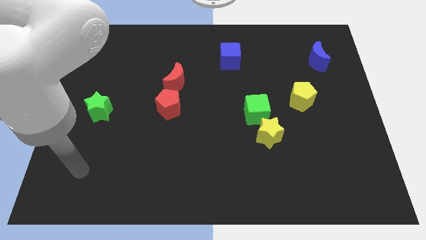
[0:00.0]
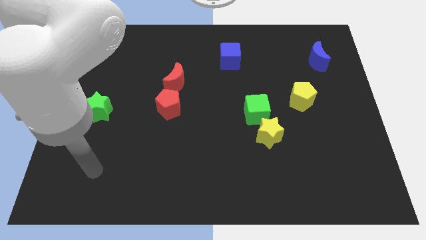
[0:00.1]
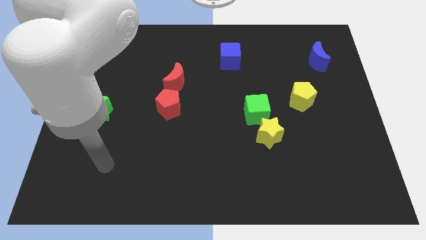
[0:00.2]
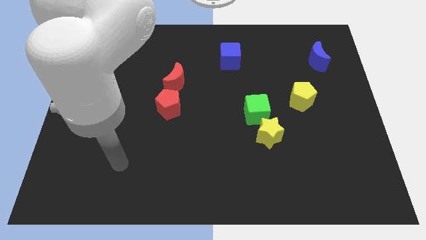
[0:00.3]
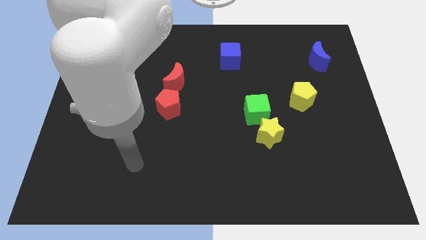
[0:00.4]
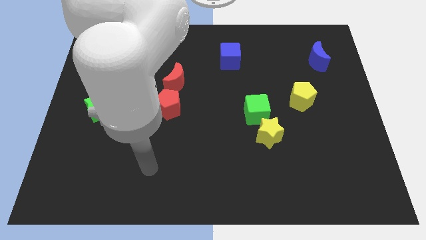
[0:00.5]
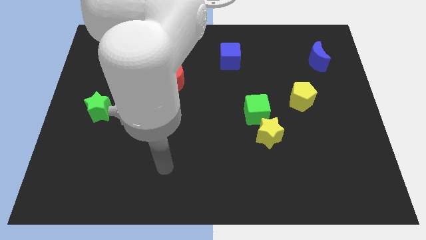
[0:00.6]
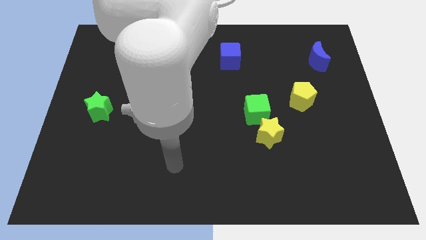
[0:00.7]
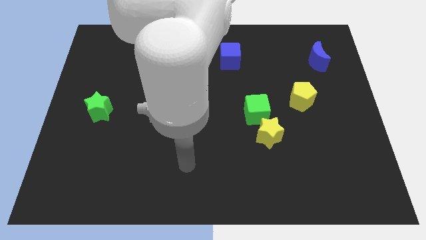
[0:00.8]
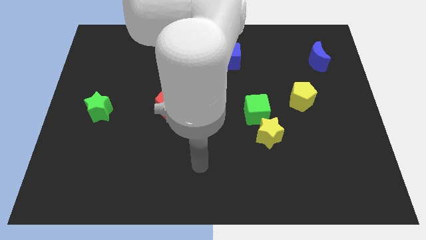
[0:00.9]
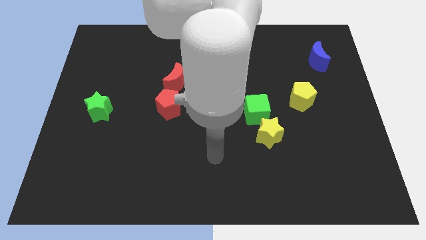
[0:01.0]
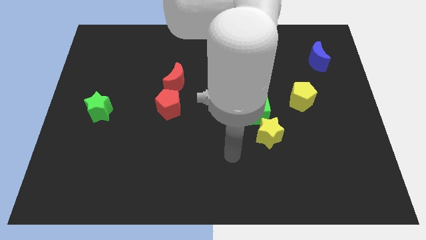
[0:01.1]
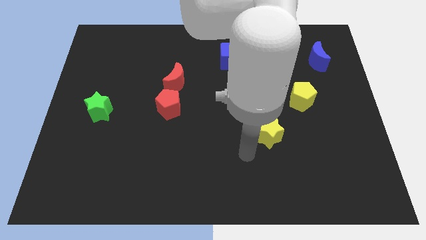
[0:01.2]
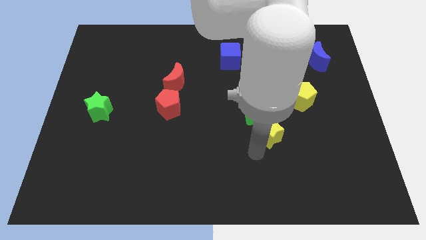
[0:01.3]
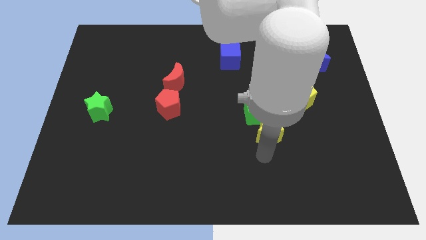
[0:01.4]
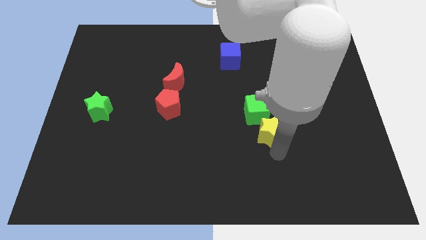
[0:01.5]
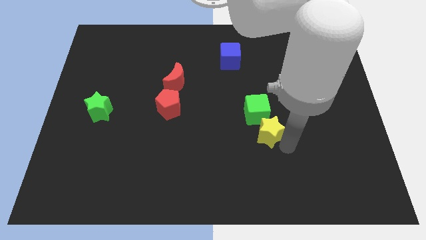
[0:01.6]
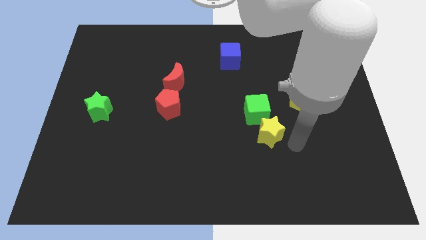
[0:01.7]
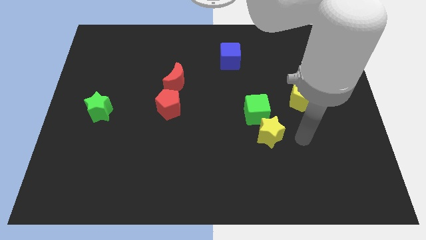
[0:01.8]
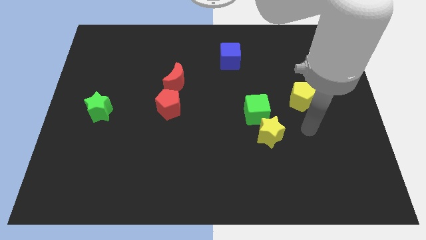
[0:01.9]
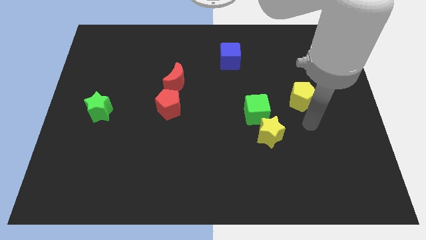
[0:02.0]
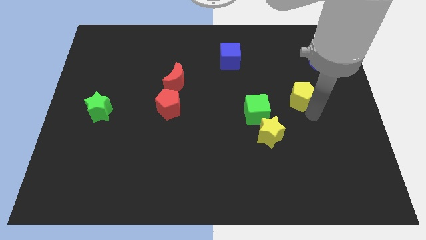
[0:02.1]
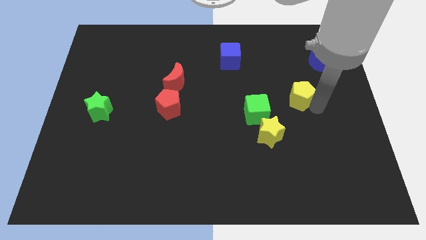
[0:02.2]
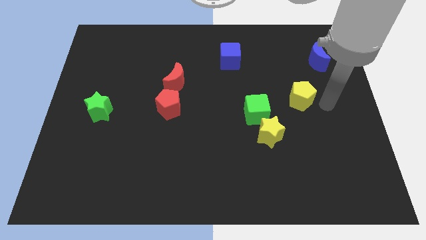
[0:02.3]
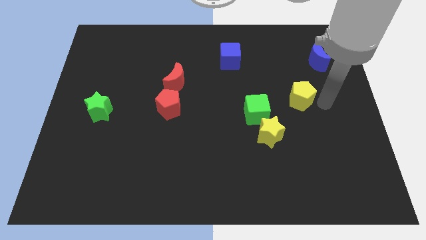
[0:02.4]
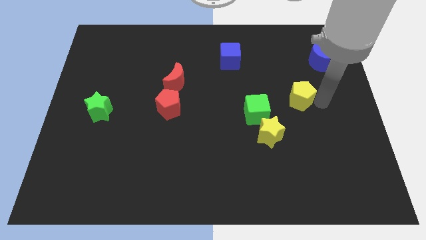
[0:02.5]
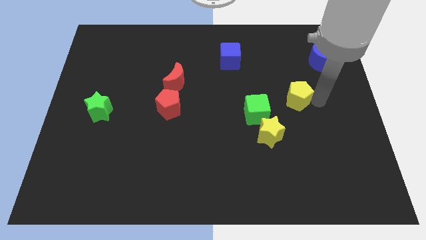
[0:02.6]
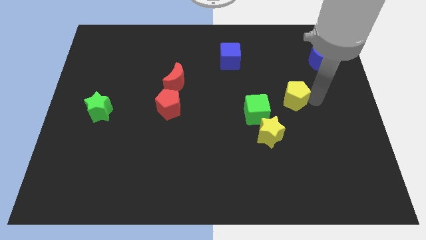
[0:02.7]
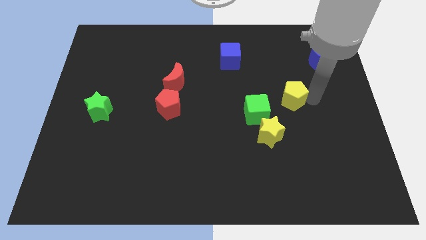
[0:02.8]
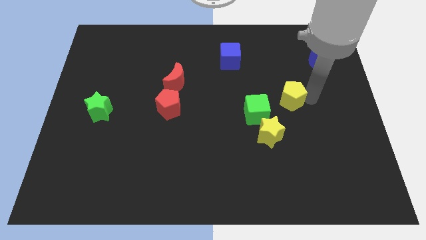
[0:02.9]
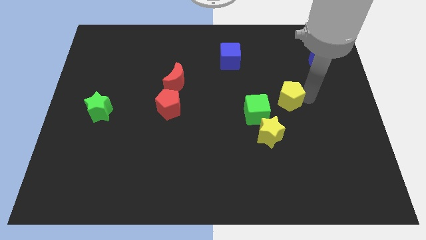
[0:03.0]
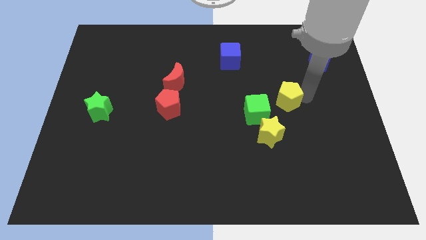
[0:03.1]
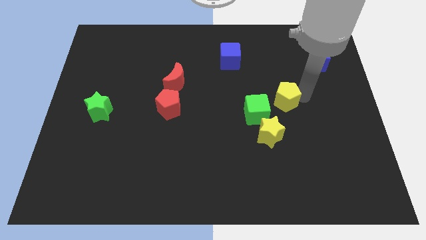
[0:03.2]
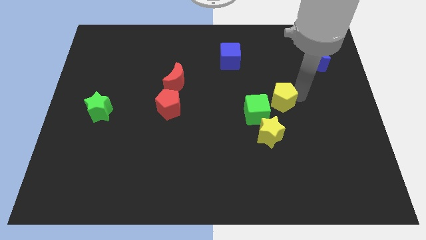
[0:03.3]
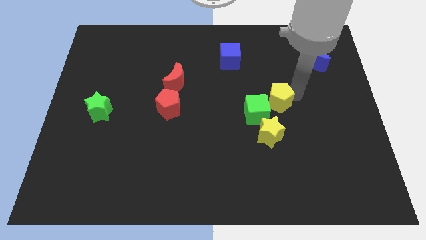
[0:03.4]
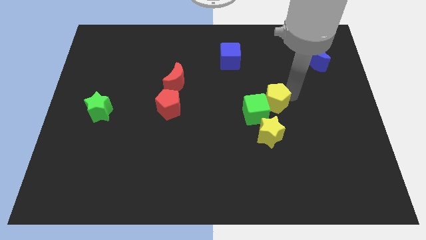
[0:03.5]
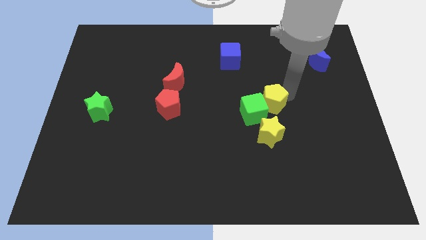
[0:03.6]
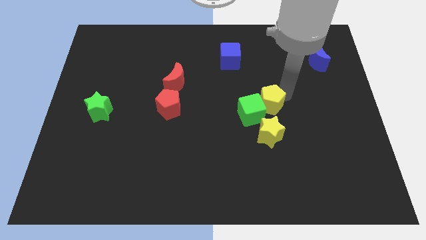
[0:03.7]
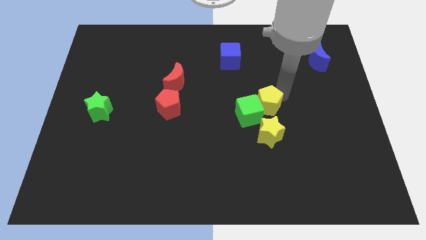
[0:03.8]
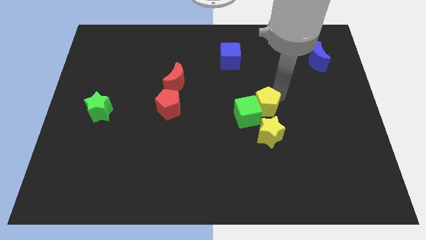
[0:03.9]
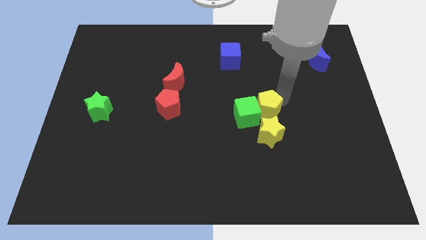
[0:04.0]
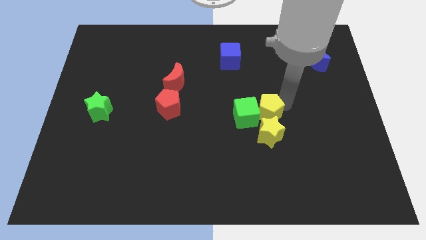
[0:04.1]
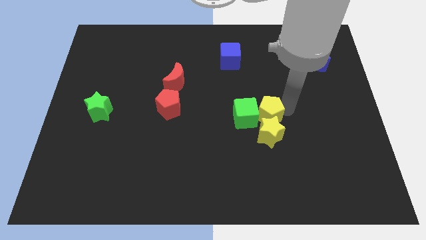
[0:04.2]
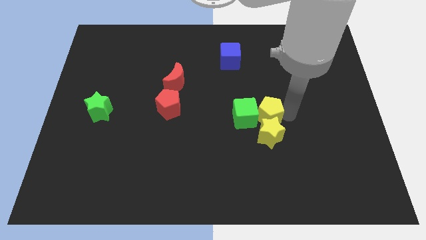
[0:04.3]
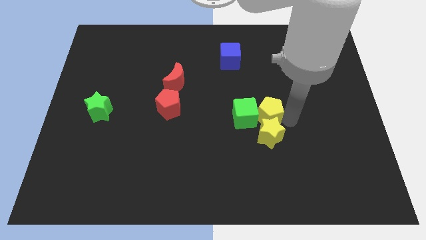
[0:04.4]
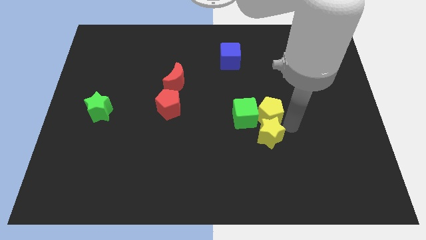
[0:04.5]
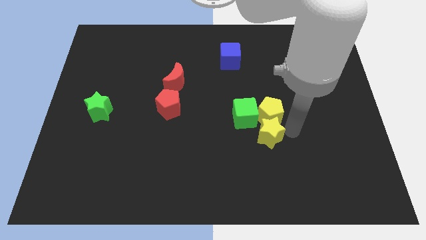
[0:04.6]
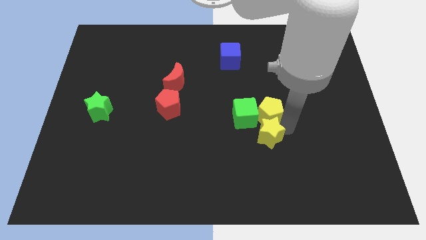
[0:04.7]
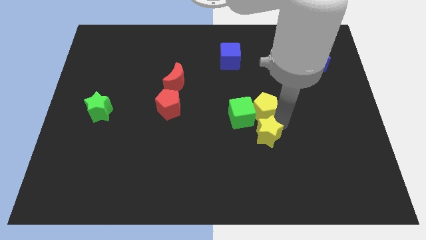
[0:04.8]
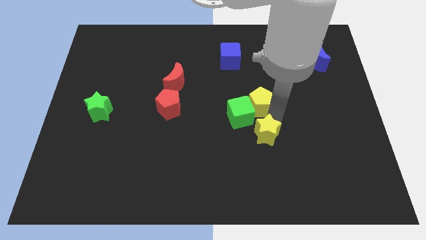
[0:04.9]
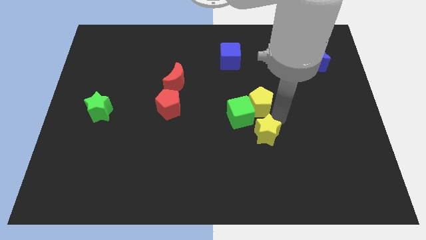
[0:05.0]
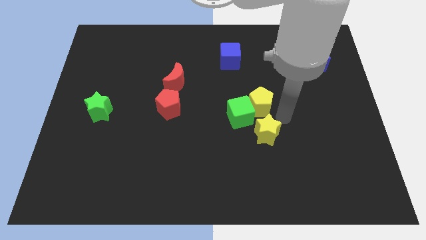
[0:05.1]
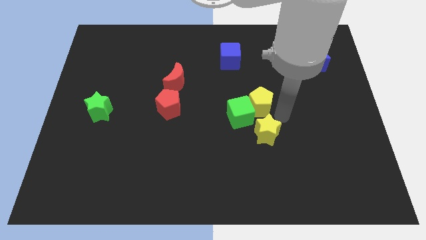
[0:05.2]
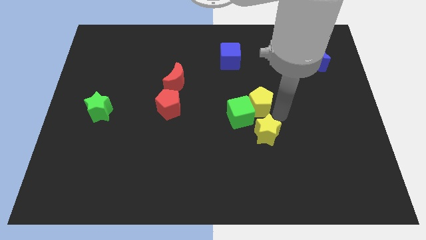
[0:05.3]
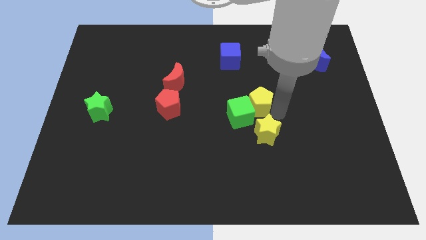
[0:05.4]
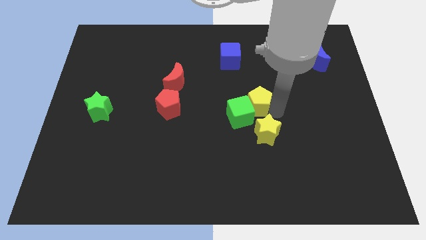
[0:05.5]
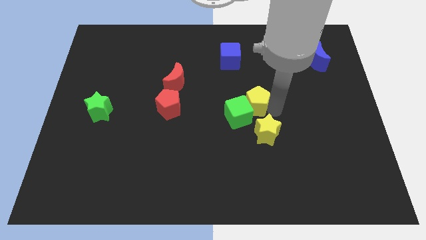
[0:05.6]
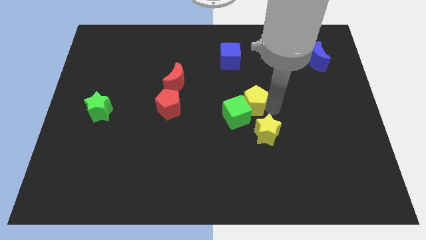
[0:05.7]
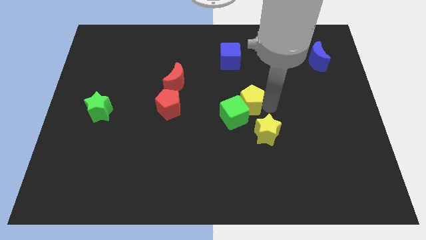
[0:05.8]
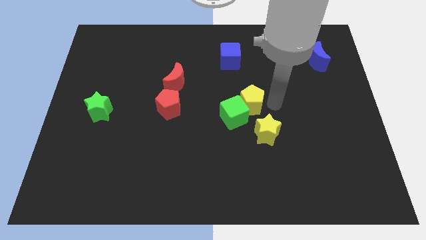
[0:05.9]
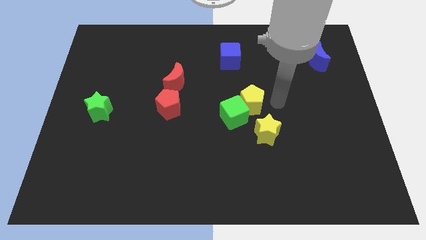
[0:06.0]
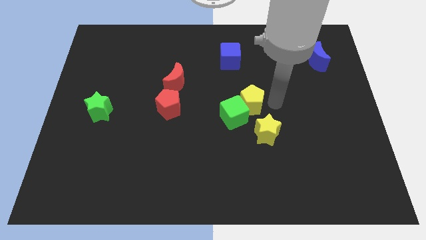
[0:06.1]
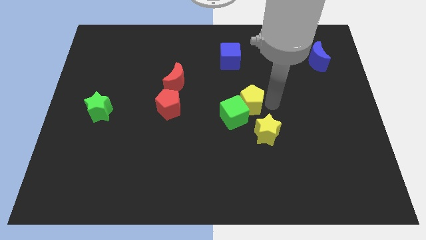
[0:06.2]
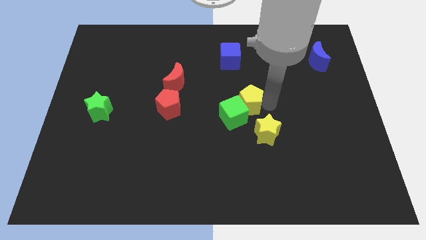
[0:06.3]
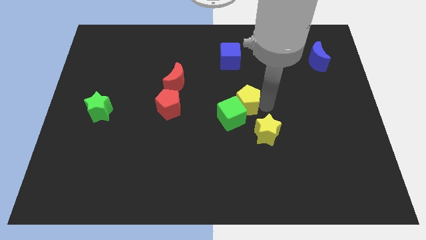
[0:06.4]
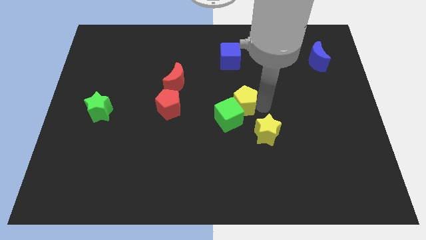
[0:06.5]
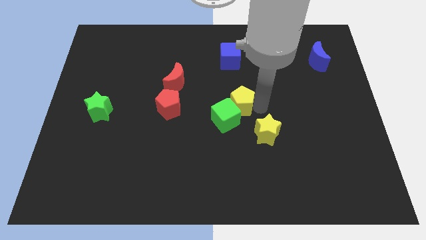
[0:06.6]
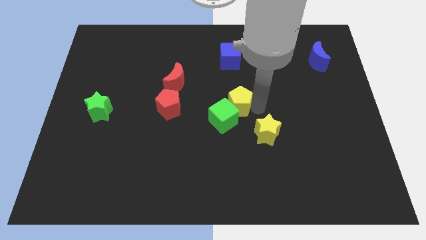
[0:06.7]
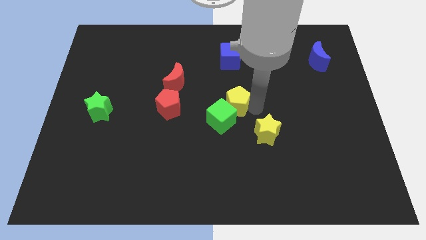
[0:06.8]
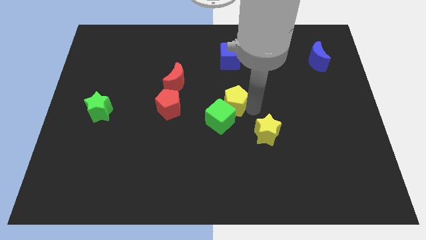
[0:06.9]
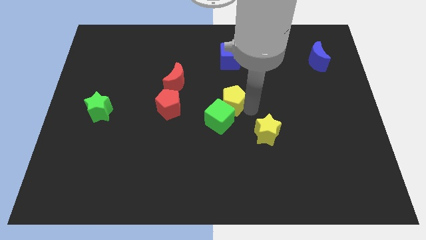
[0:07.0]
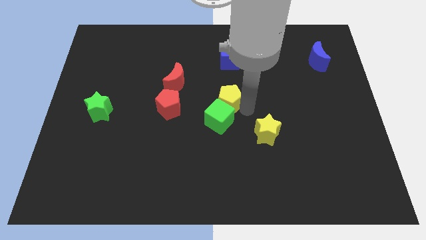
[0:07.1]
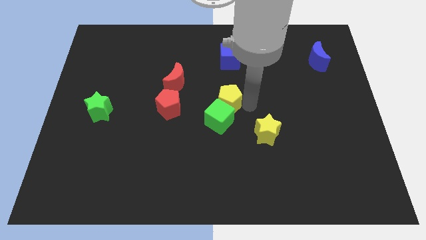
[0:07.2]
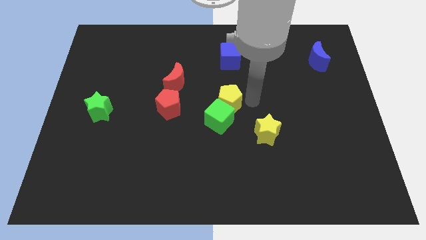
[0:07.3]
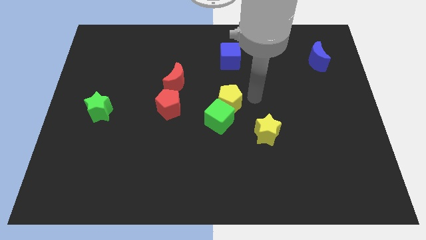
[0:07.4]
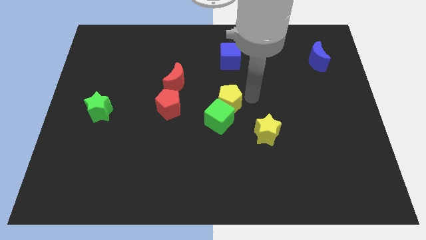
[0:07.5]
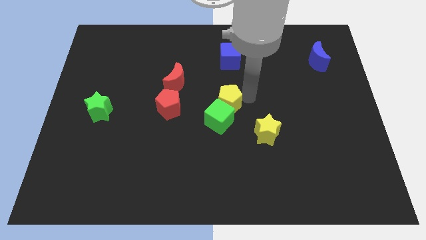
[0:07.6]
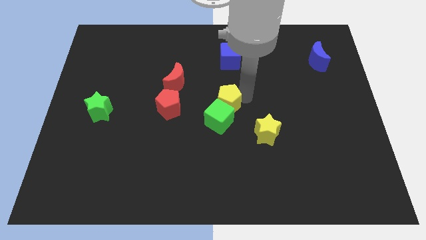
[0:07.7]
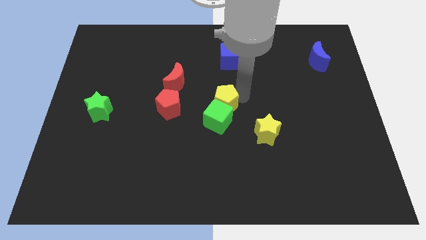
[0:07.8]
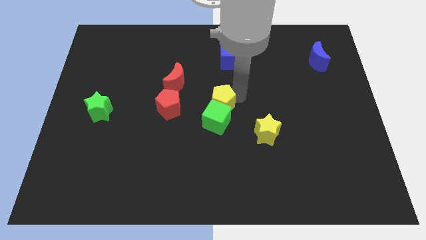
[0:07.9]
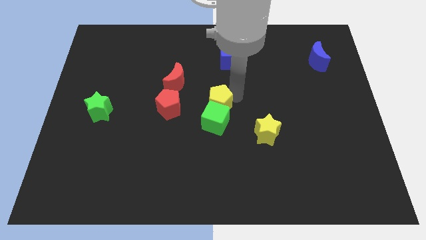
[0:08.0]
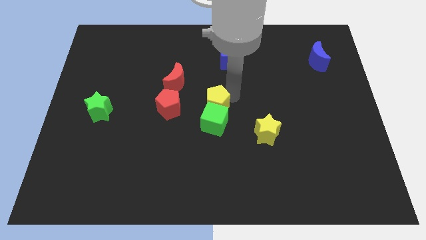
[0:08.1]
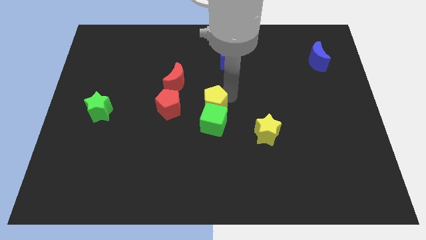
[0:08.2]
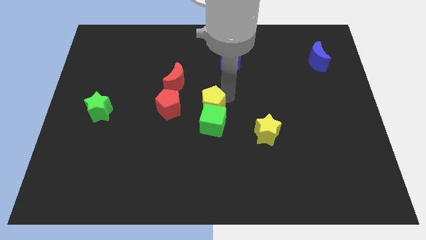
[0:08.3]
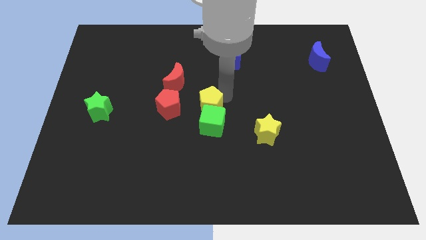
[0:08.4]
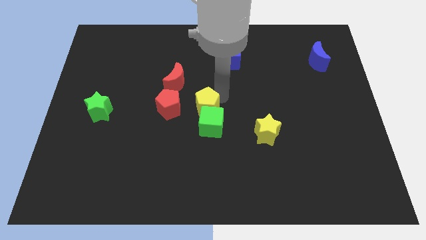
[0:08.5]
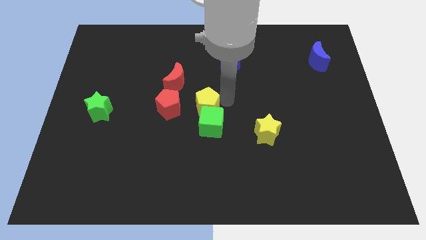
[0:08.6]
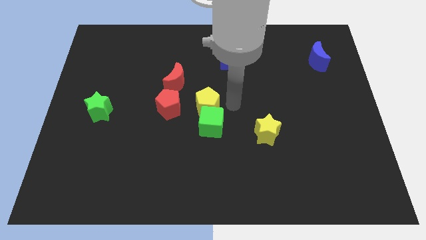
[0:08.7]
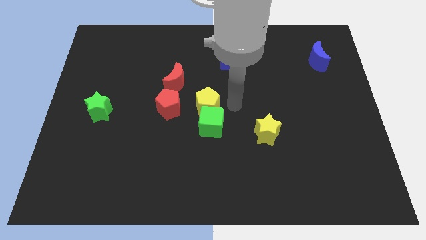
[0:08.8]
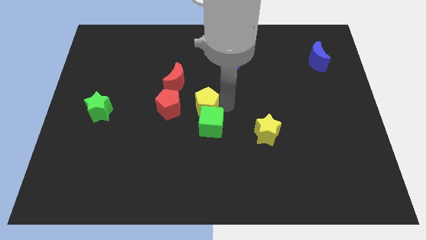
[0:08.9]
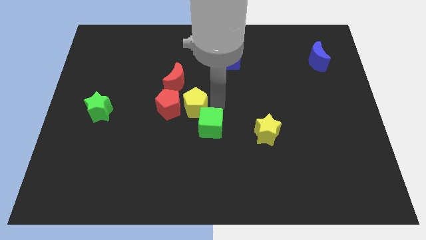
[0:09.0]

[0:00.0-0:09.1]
move the yellow pentagon next to the red pentagon
